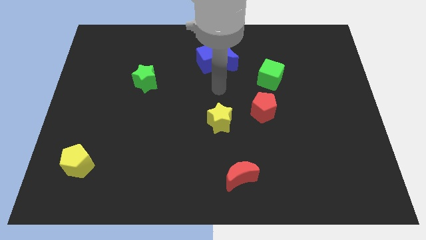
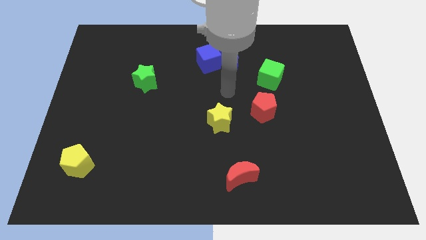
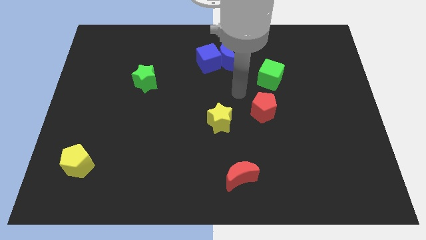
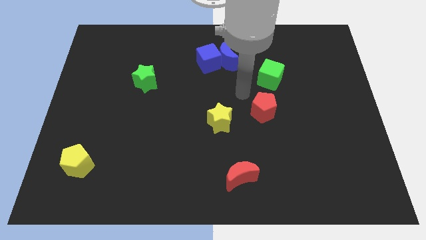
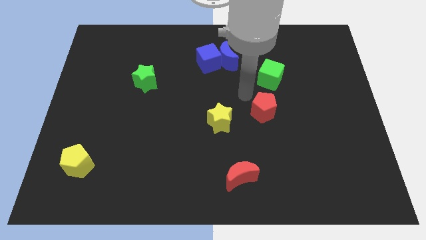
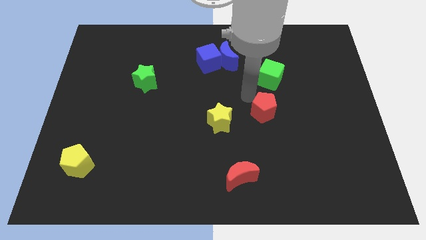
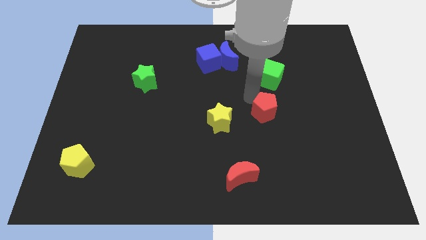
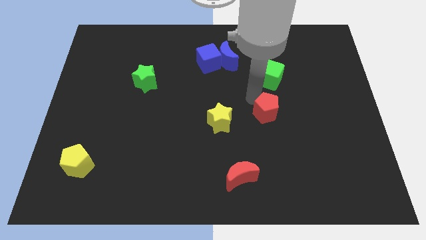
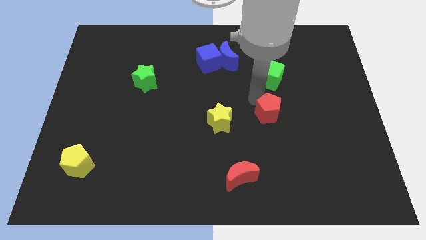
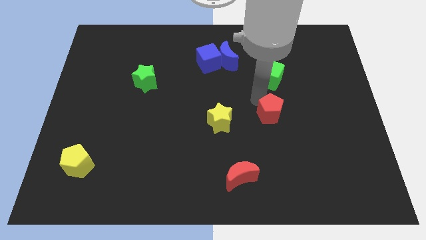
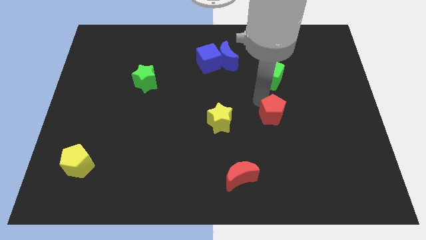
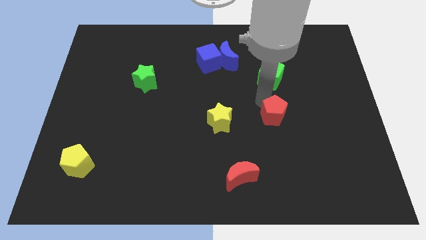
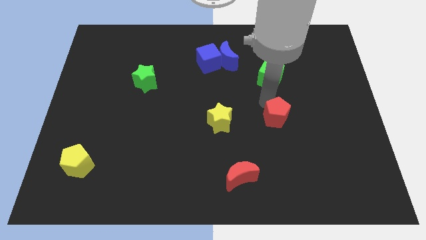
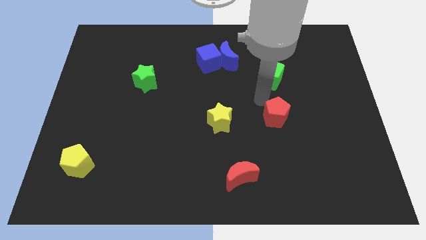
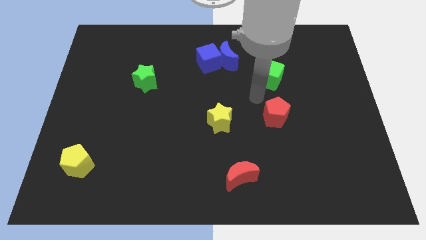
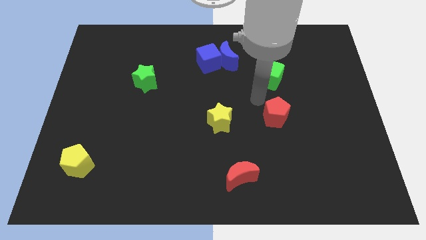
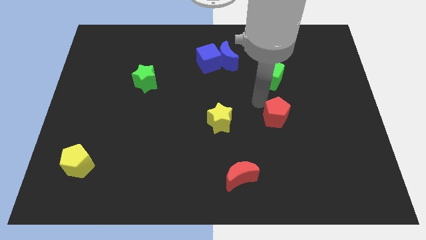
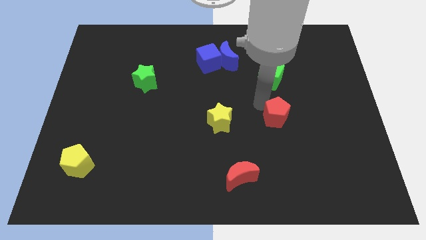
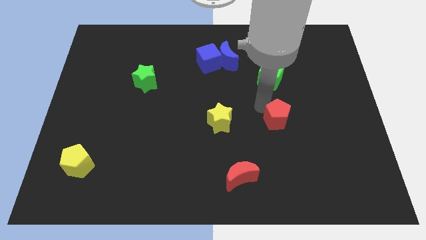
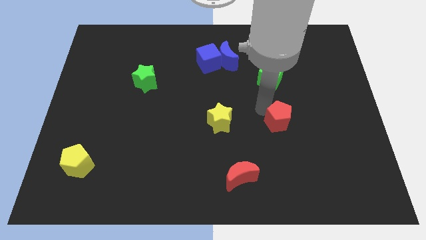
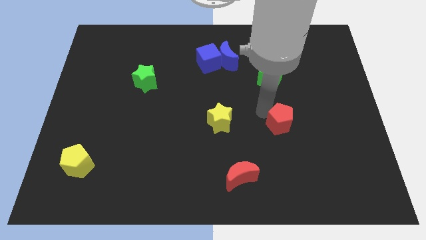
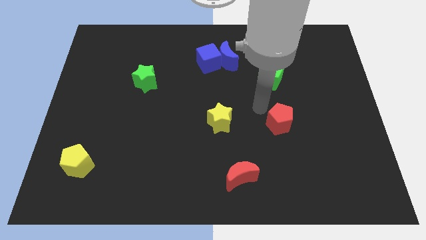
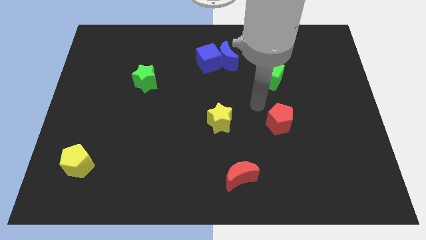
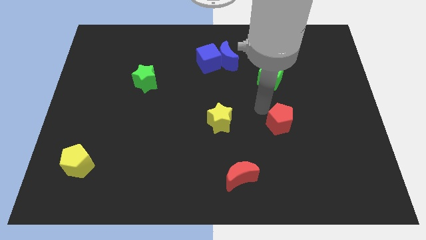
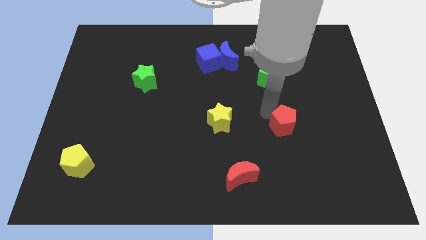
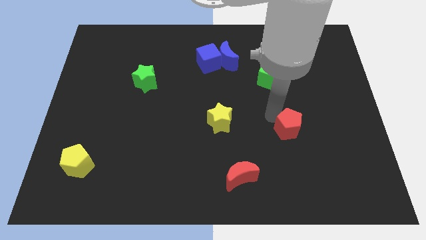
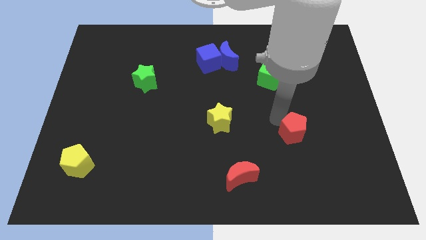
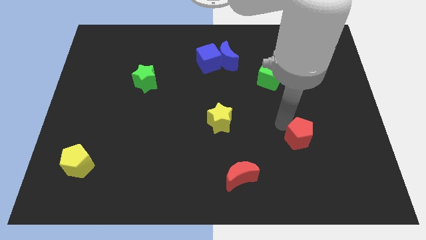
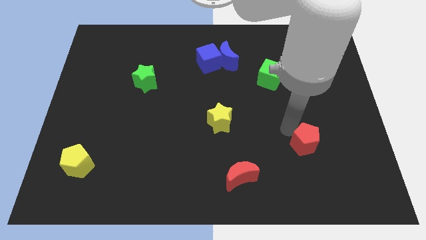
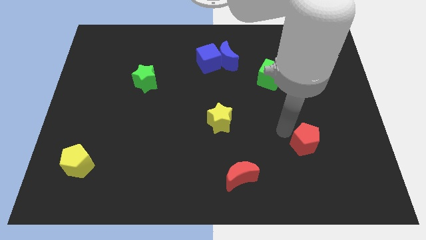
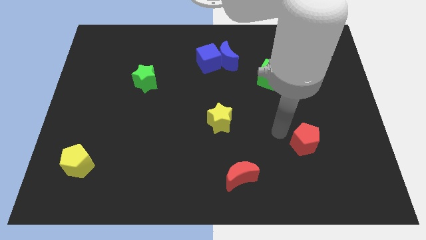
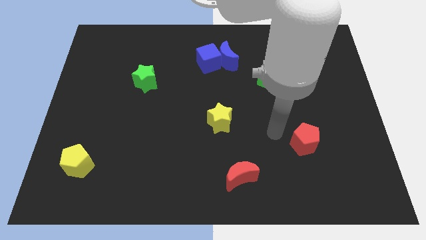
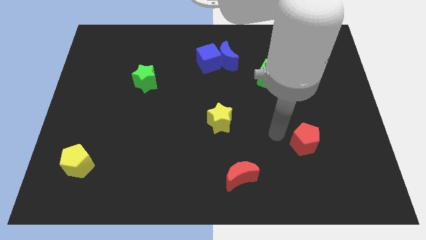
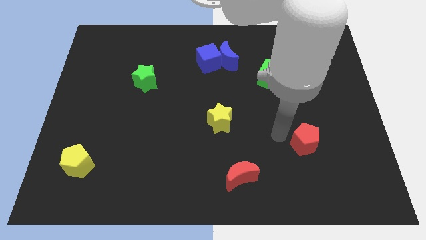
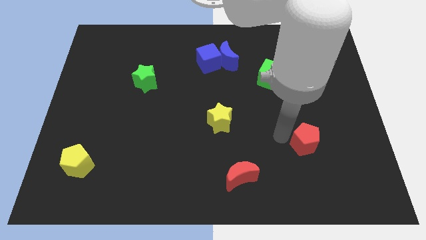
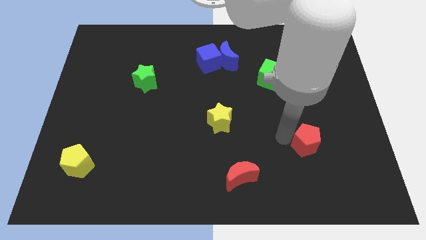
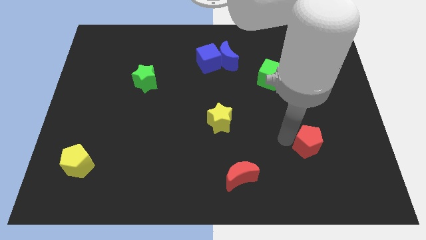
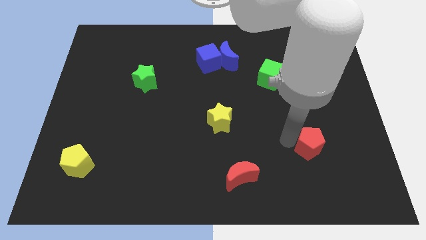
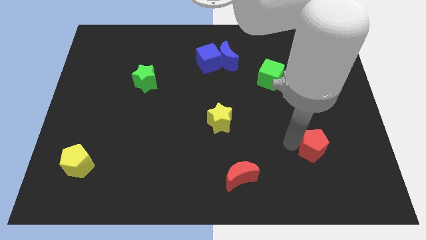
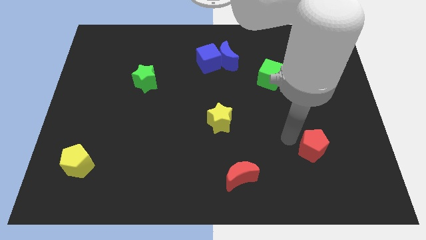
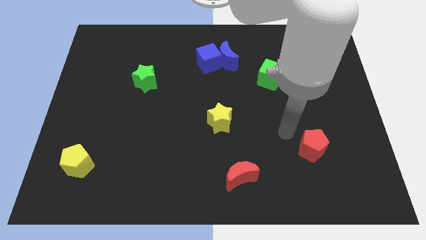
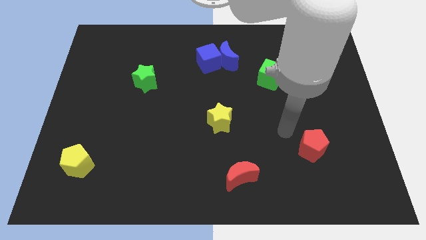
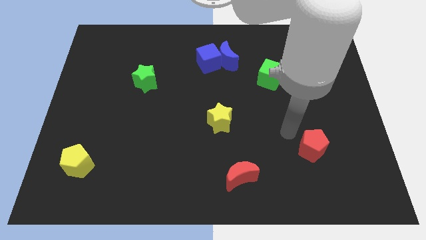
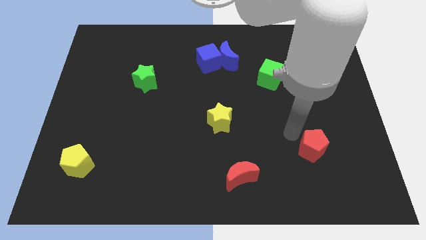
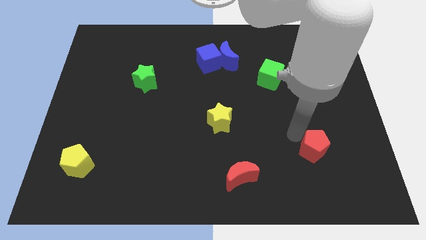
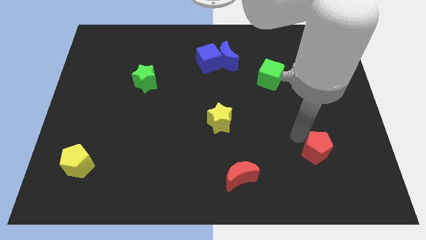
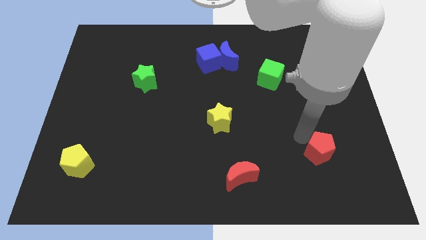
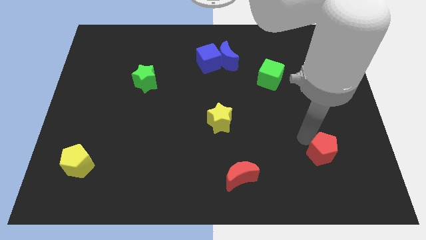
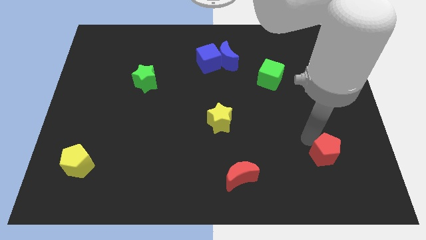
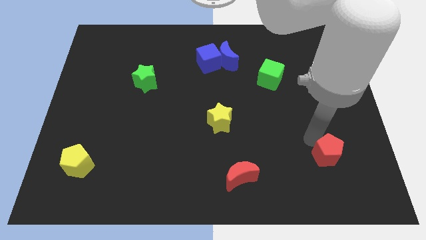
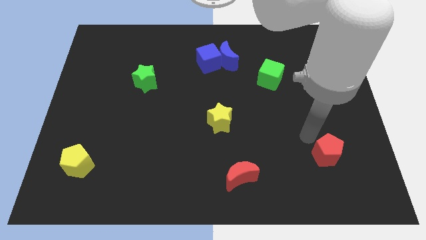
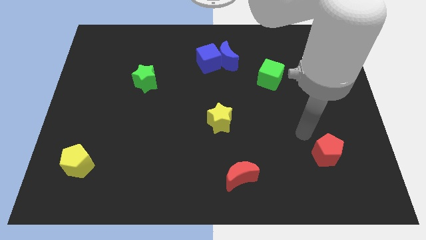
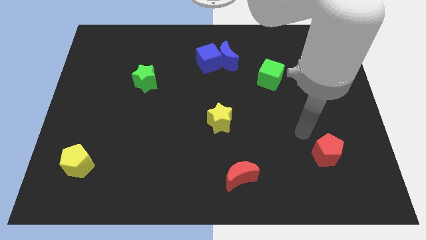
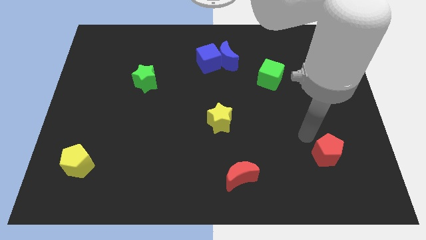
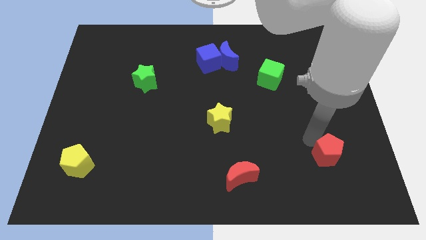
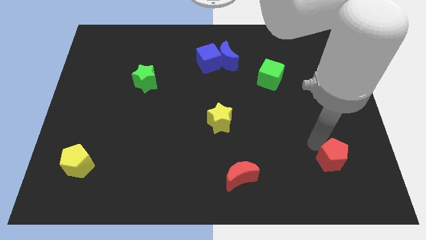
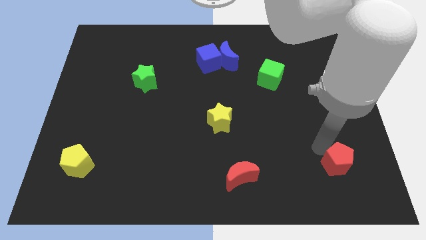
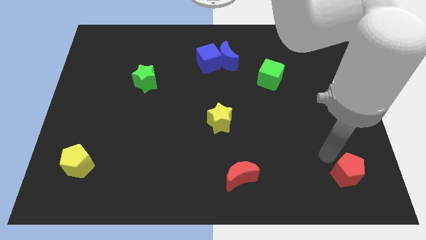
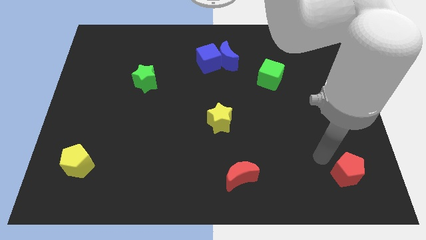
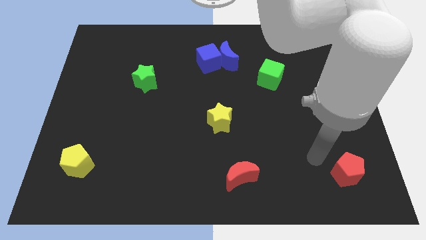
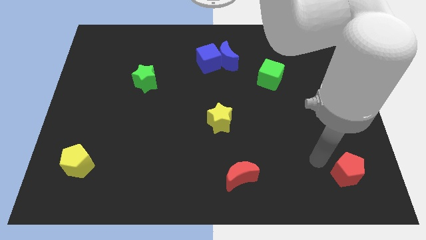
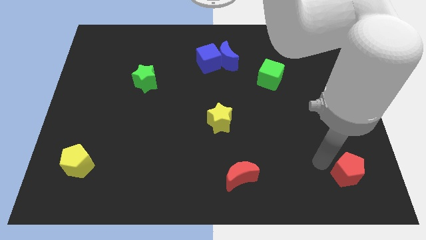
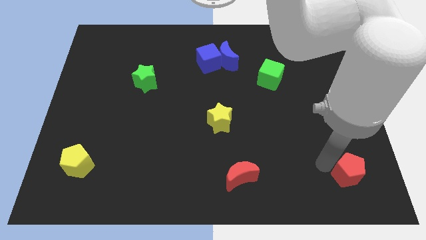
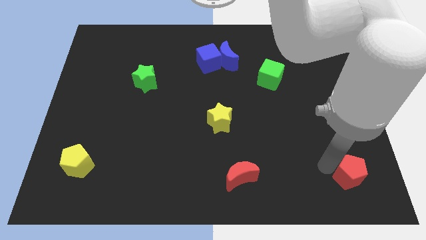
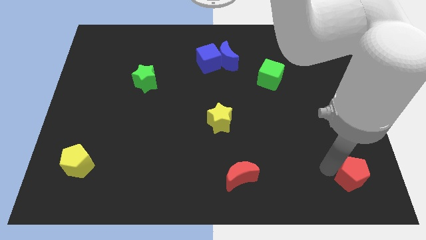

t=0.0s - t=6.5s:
move the red pentagon to the bottom right of the board
